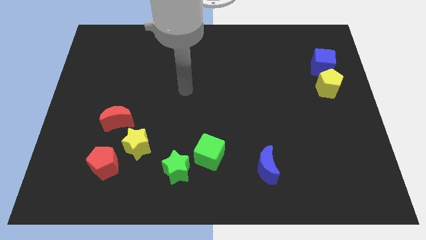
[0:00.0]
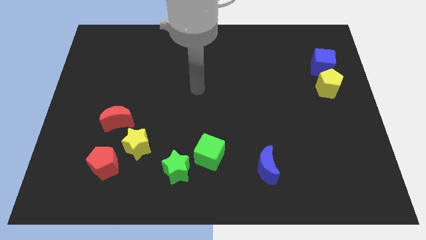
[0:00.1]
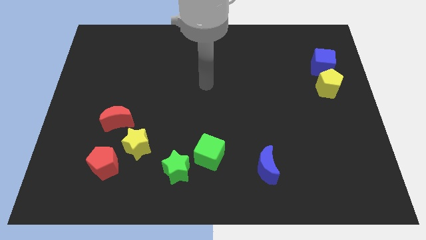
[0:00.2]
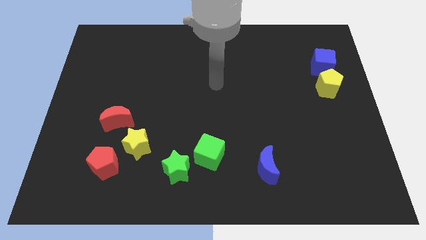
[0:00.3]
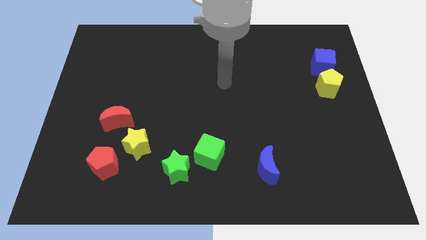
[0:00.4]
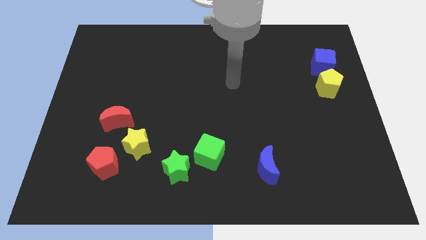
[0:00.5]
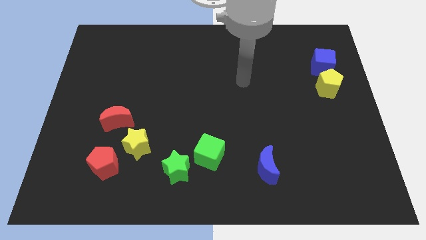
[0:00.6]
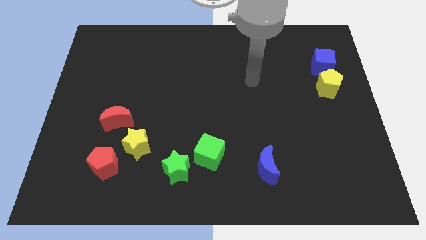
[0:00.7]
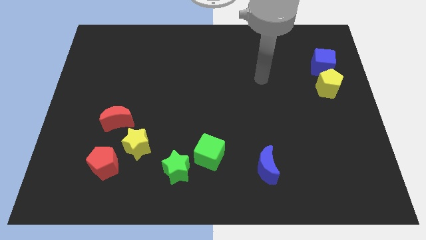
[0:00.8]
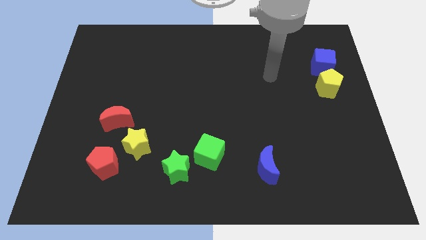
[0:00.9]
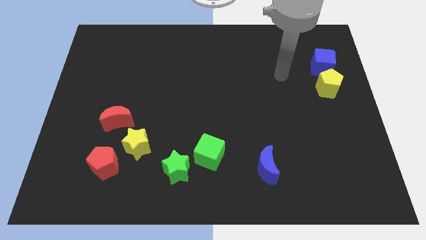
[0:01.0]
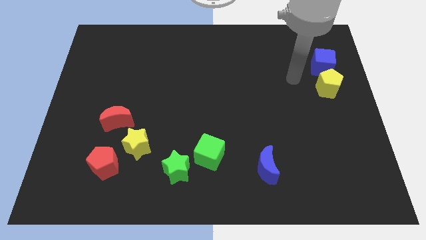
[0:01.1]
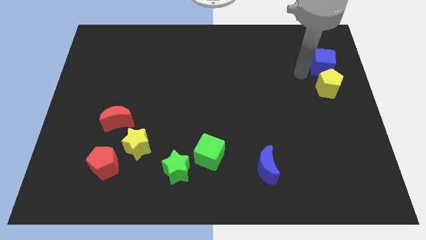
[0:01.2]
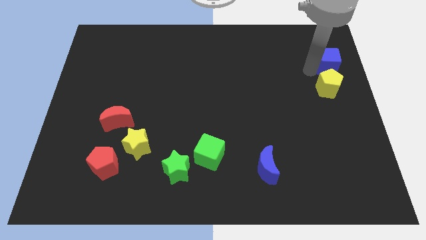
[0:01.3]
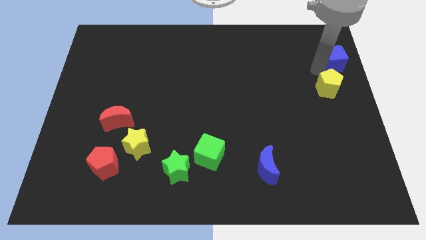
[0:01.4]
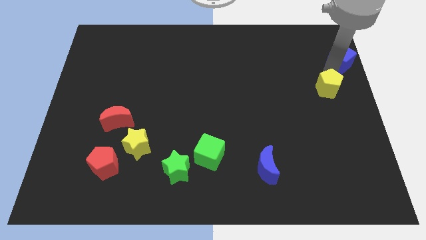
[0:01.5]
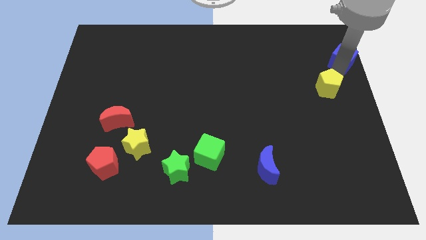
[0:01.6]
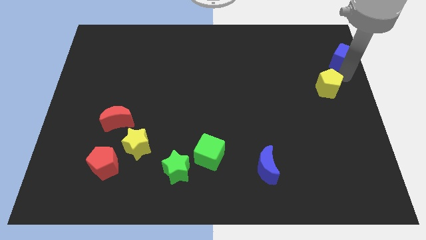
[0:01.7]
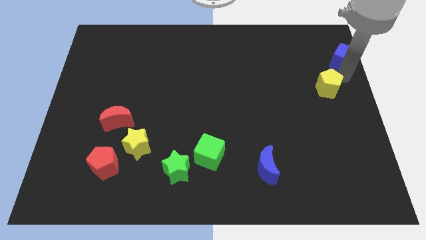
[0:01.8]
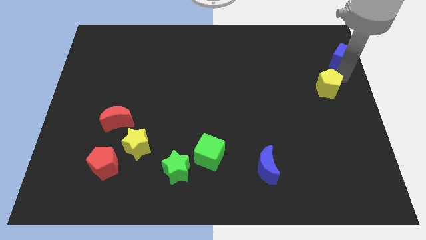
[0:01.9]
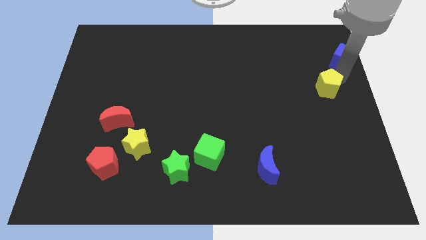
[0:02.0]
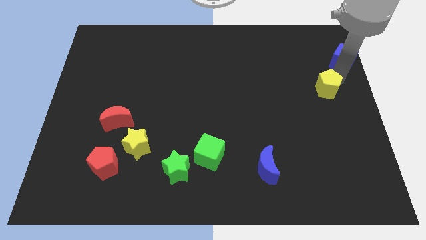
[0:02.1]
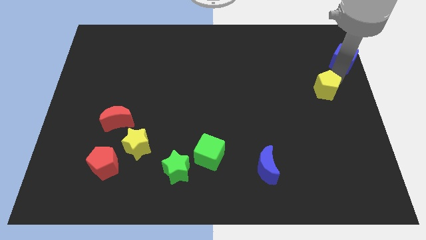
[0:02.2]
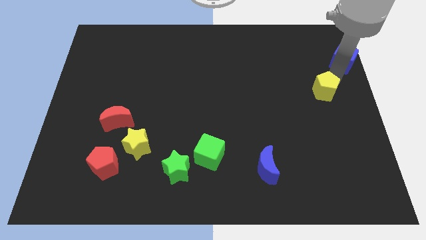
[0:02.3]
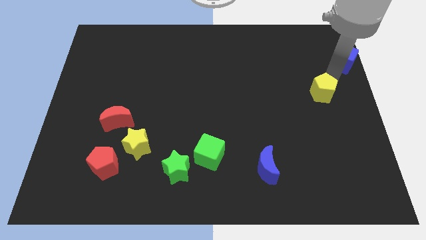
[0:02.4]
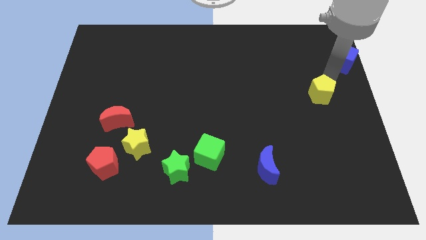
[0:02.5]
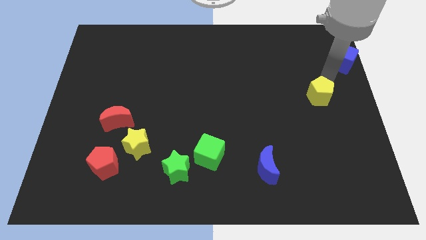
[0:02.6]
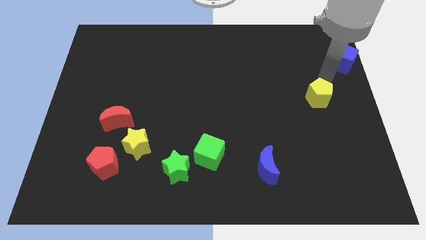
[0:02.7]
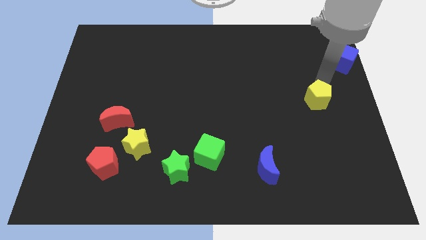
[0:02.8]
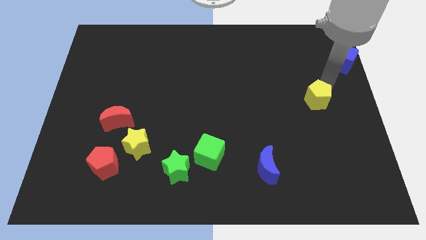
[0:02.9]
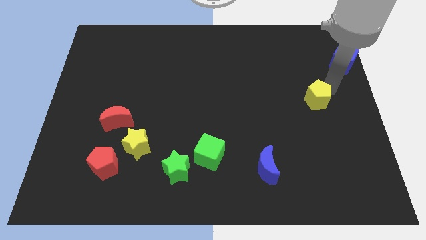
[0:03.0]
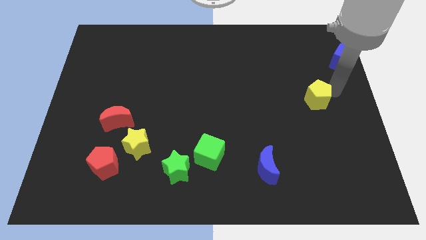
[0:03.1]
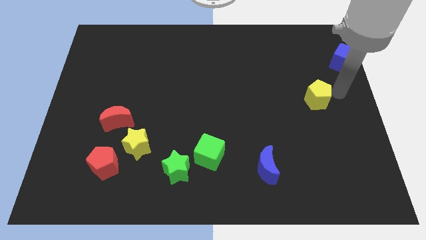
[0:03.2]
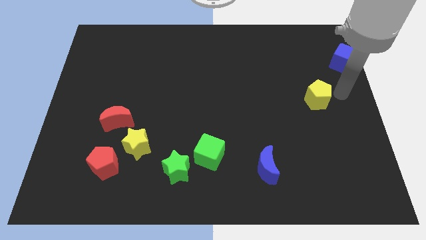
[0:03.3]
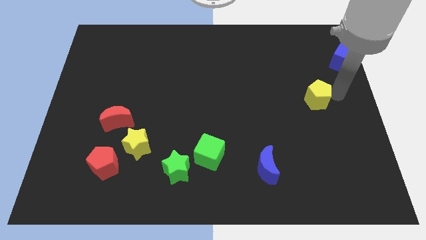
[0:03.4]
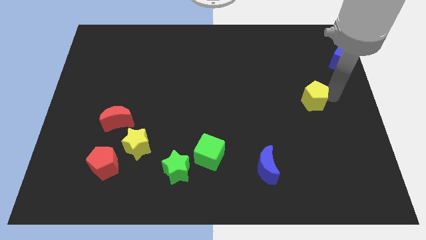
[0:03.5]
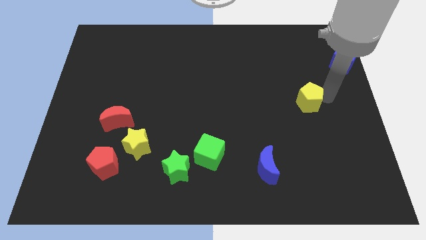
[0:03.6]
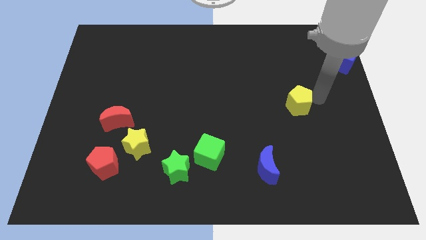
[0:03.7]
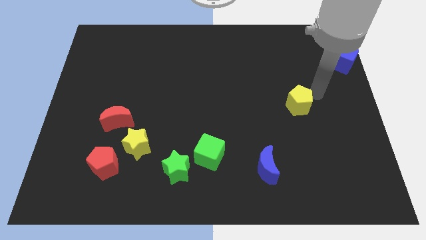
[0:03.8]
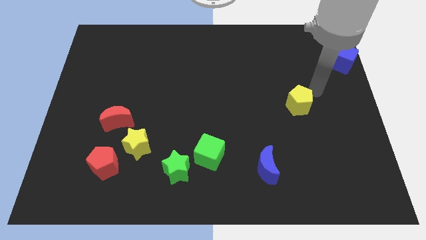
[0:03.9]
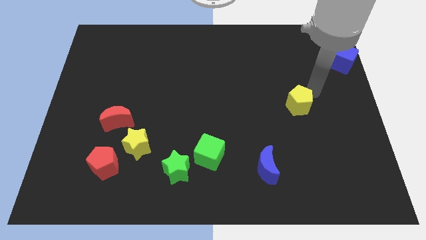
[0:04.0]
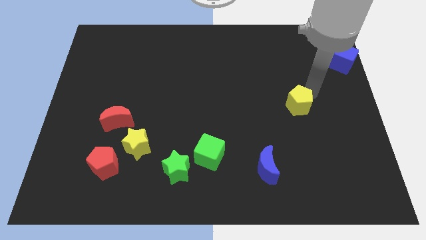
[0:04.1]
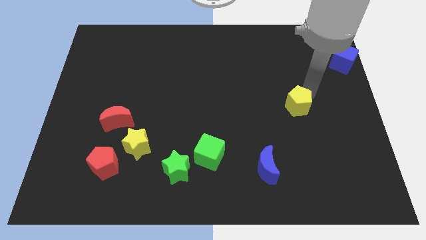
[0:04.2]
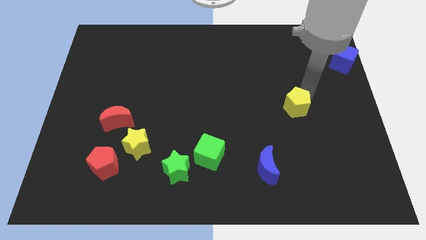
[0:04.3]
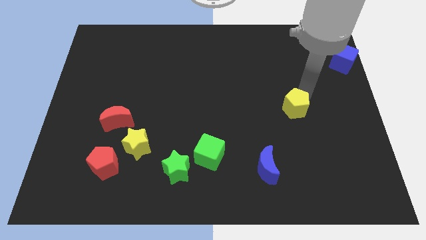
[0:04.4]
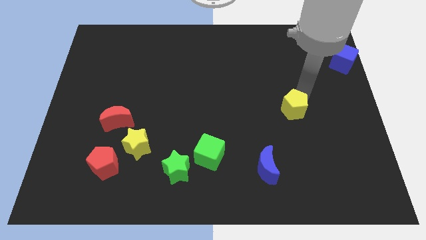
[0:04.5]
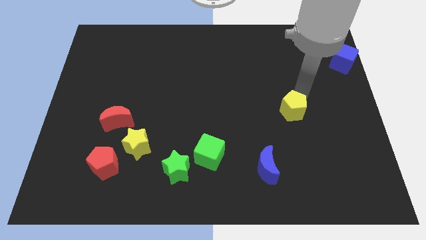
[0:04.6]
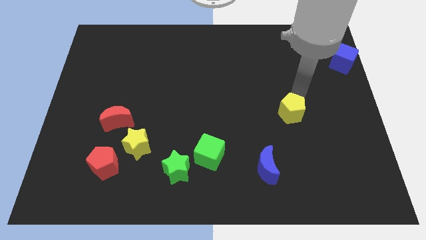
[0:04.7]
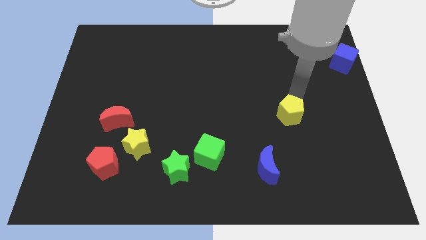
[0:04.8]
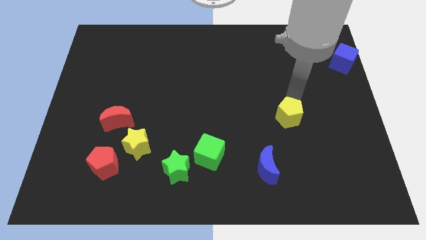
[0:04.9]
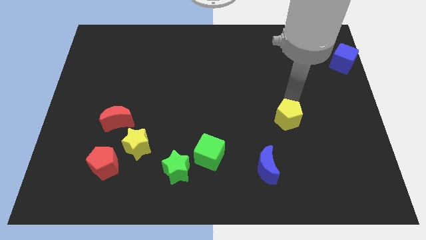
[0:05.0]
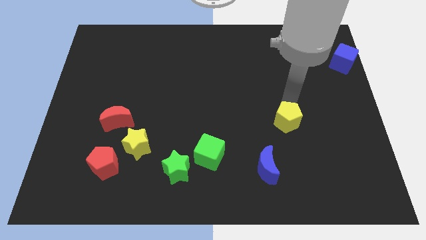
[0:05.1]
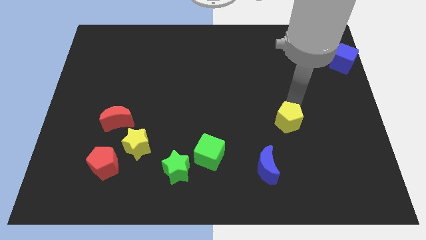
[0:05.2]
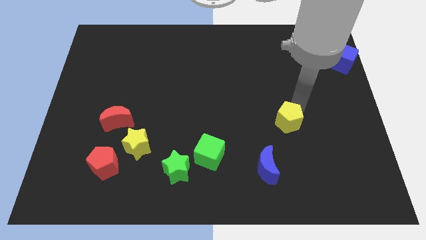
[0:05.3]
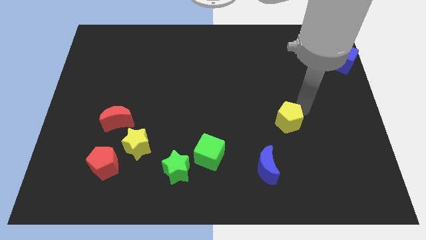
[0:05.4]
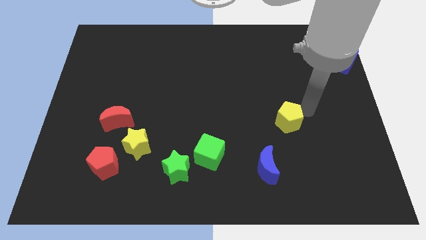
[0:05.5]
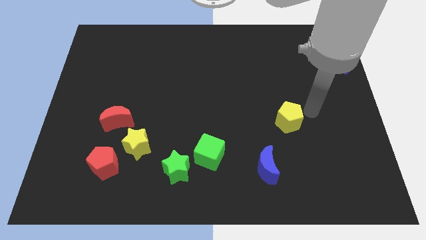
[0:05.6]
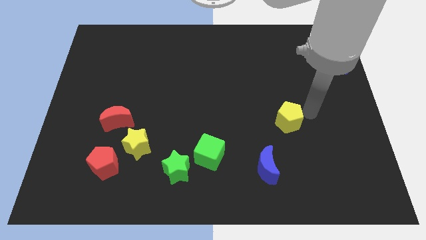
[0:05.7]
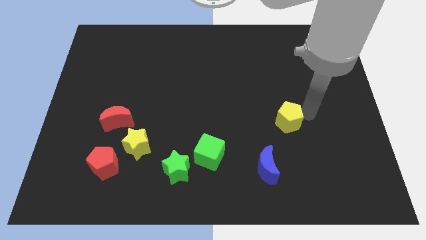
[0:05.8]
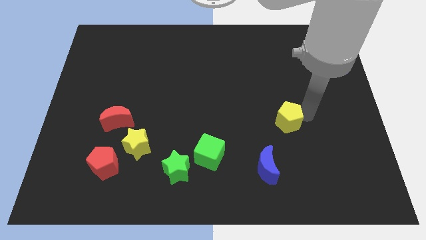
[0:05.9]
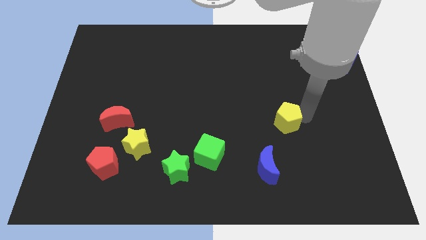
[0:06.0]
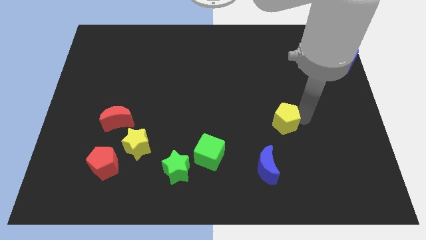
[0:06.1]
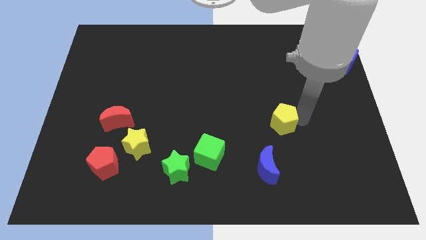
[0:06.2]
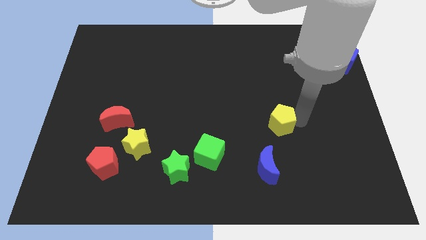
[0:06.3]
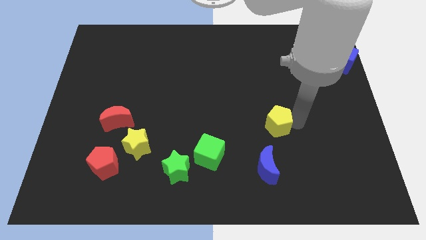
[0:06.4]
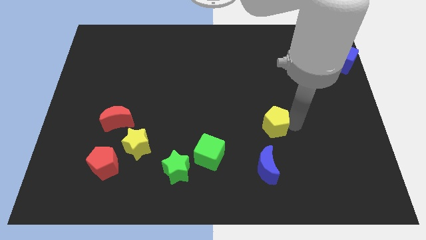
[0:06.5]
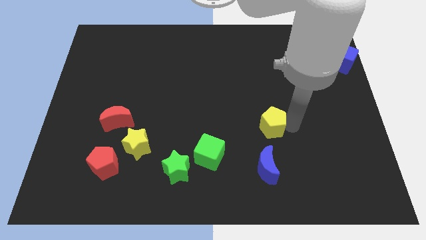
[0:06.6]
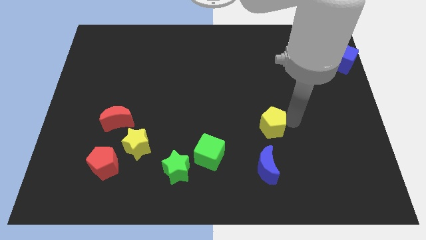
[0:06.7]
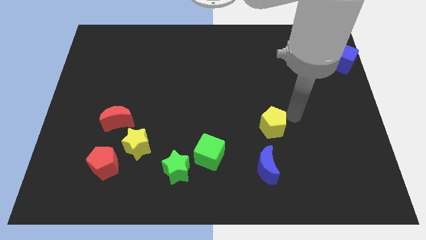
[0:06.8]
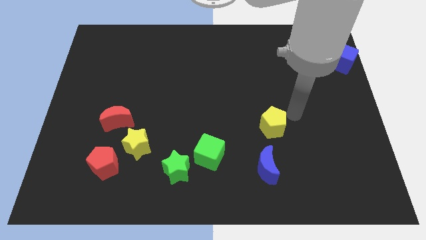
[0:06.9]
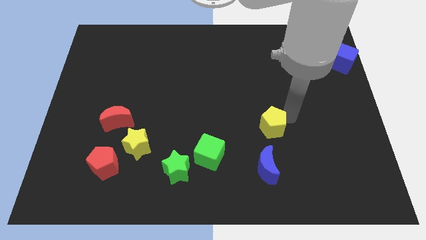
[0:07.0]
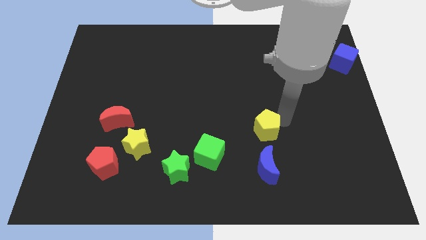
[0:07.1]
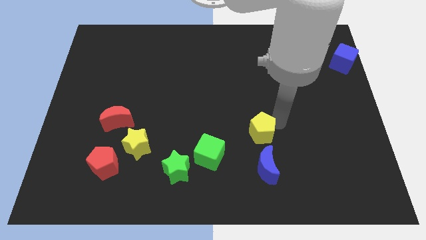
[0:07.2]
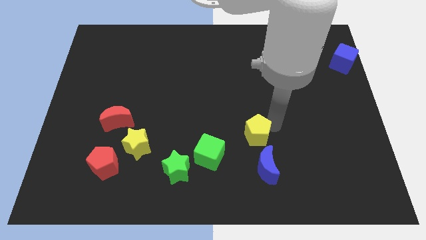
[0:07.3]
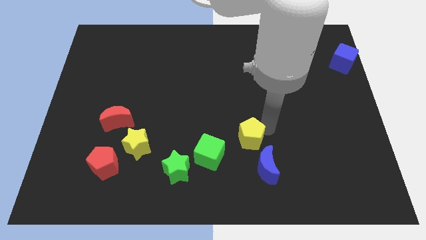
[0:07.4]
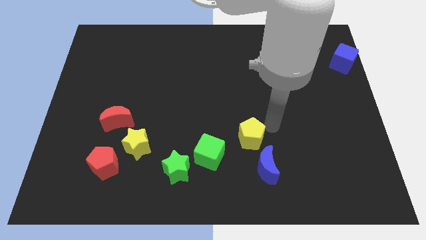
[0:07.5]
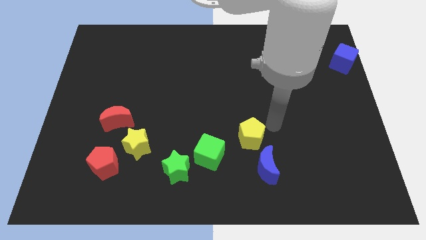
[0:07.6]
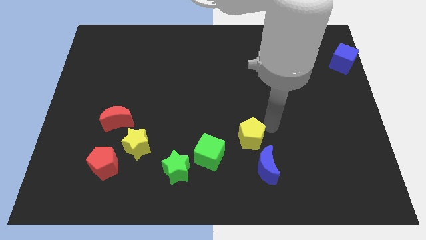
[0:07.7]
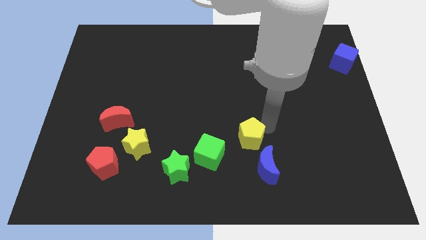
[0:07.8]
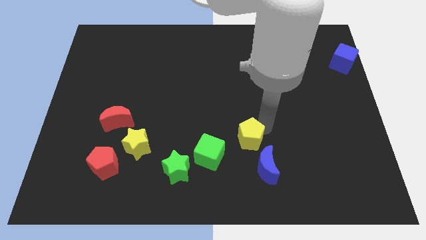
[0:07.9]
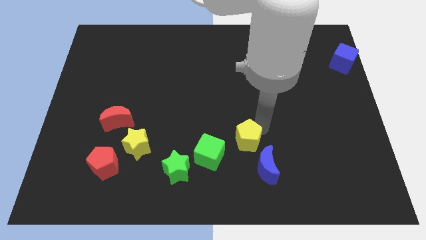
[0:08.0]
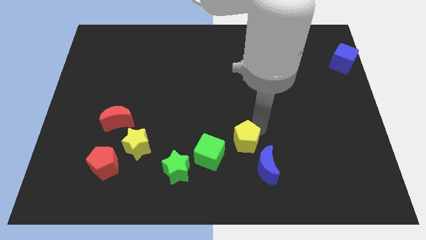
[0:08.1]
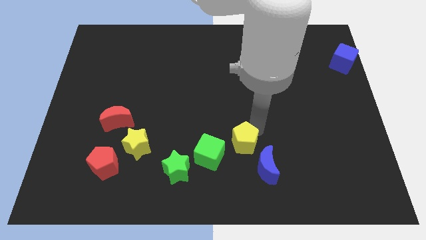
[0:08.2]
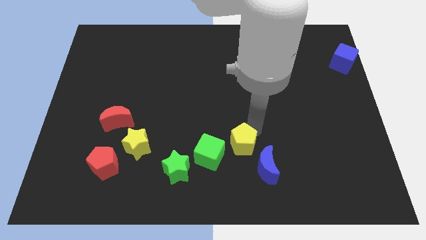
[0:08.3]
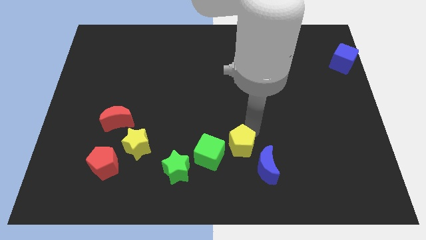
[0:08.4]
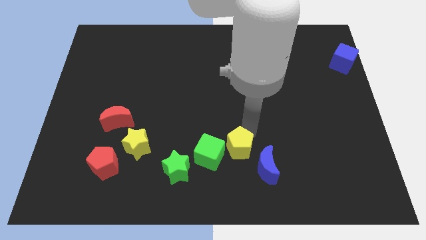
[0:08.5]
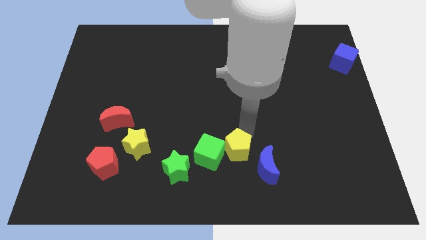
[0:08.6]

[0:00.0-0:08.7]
move the yellow pentagon to the green cube
